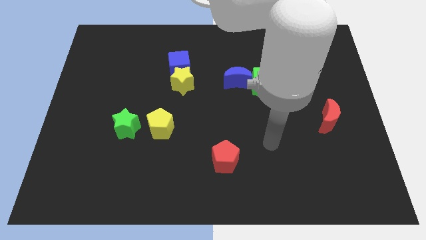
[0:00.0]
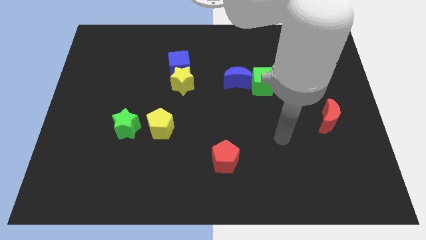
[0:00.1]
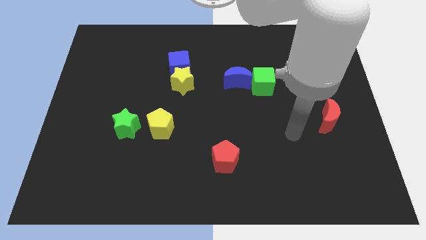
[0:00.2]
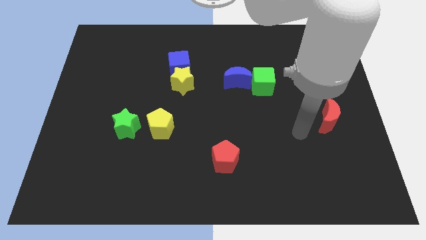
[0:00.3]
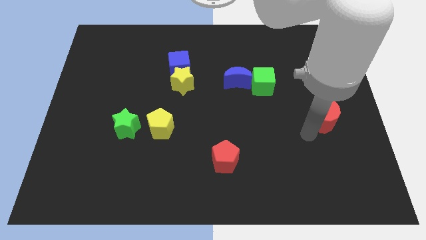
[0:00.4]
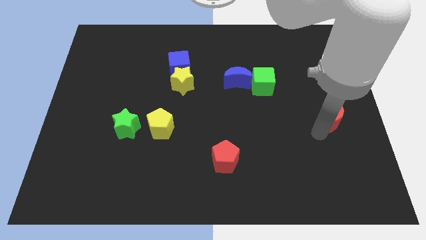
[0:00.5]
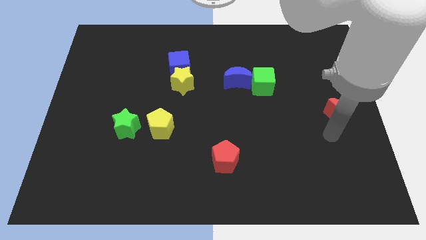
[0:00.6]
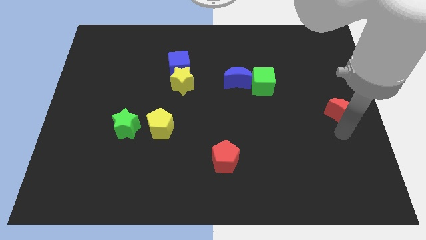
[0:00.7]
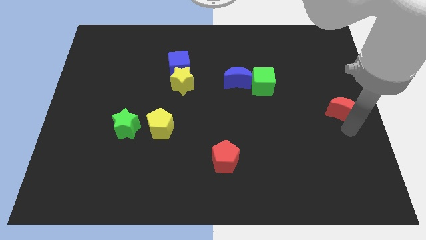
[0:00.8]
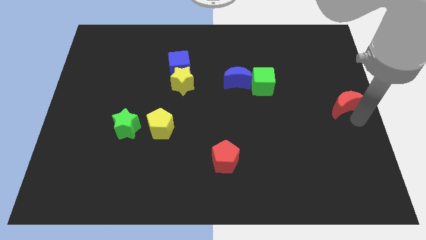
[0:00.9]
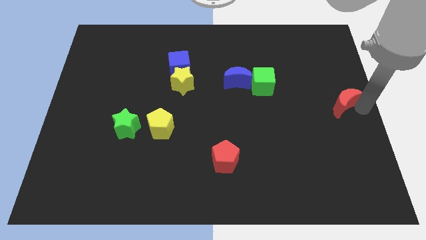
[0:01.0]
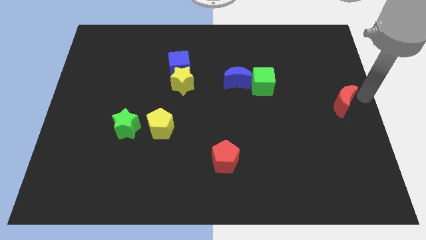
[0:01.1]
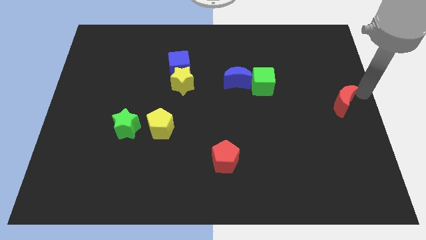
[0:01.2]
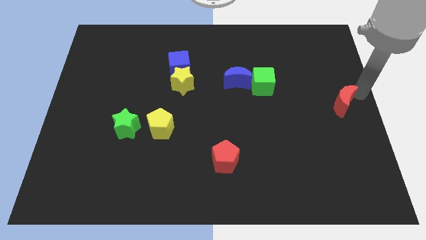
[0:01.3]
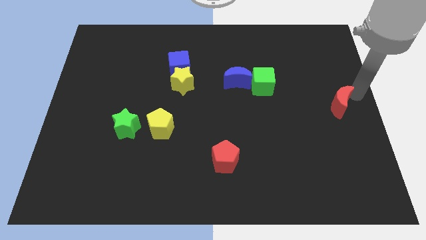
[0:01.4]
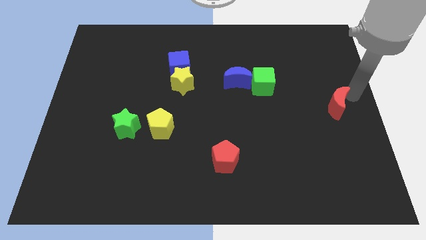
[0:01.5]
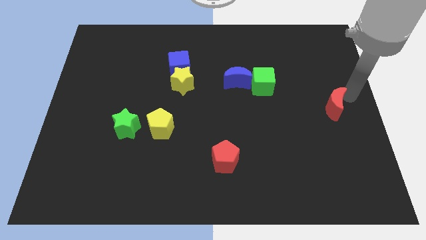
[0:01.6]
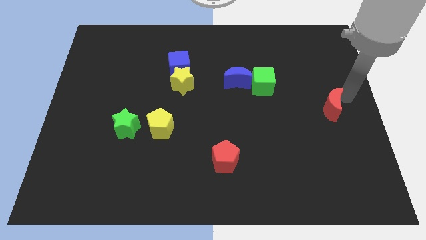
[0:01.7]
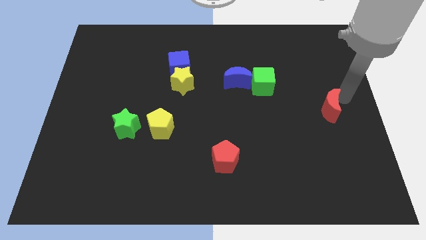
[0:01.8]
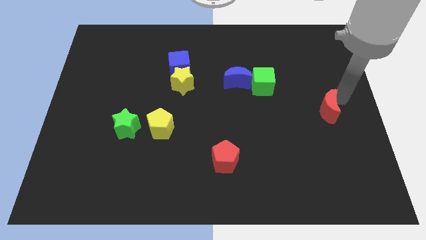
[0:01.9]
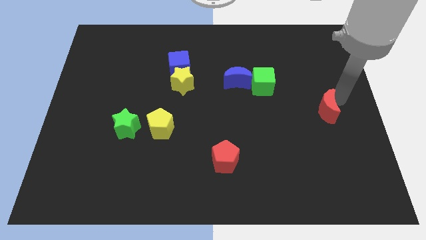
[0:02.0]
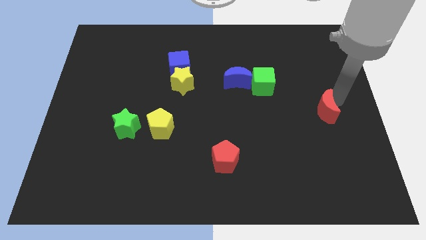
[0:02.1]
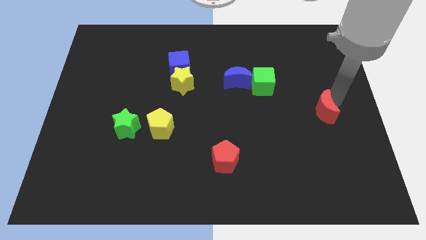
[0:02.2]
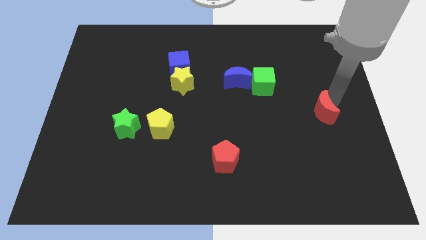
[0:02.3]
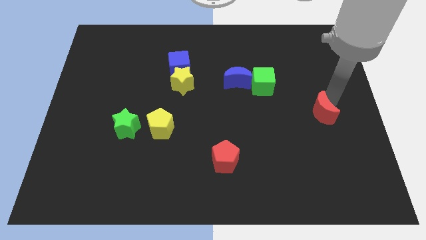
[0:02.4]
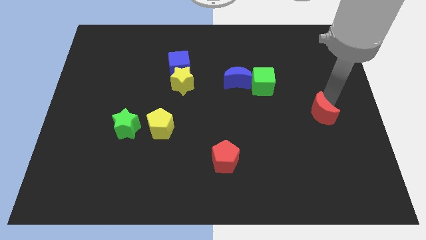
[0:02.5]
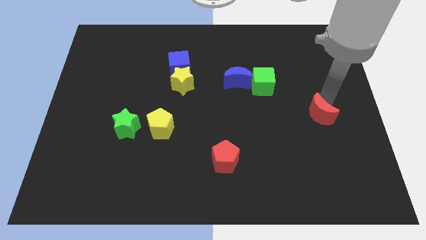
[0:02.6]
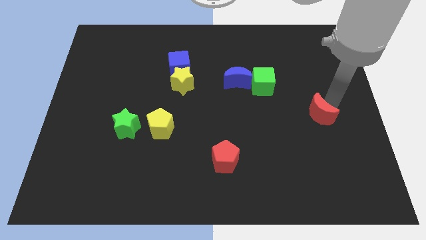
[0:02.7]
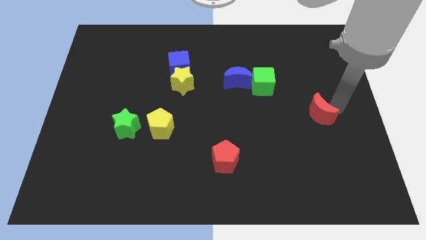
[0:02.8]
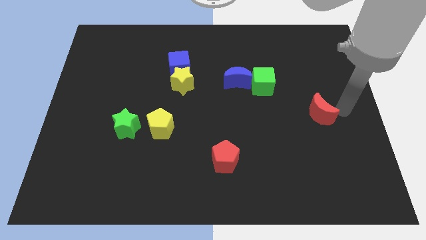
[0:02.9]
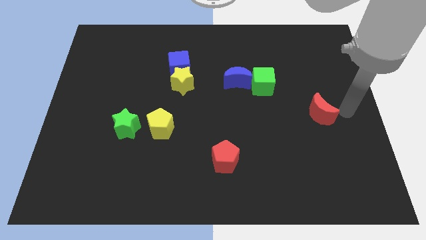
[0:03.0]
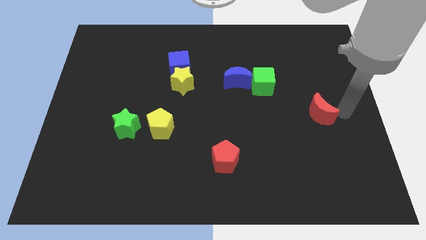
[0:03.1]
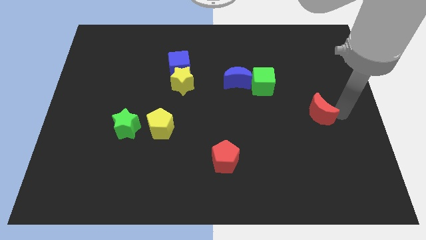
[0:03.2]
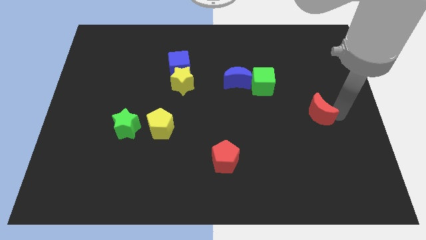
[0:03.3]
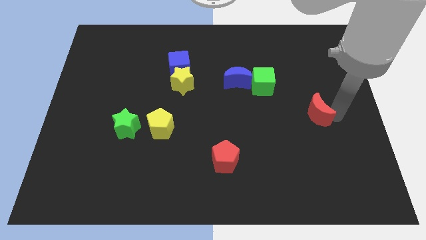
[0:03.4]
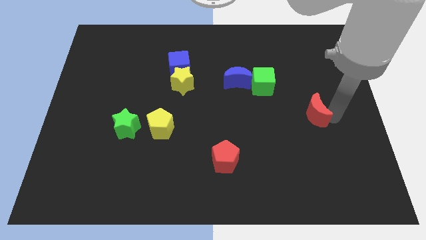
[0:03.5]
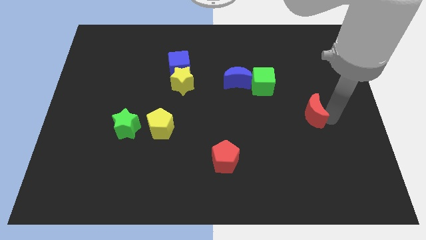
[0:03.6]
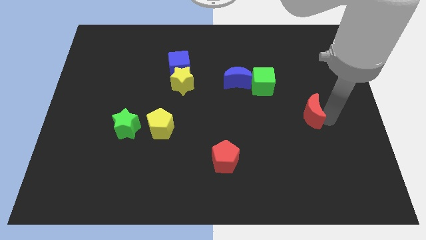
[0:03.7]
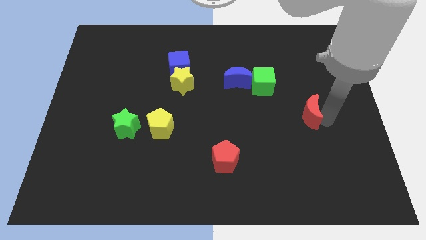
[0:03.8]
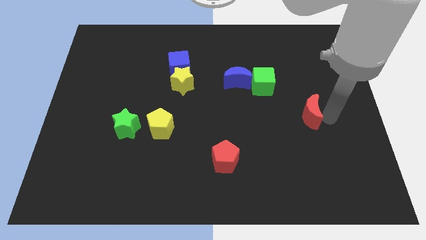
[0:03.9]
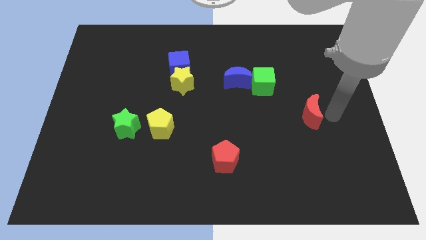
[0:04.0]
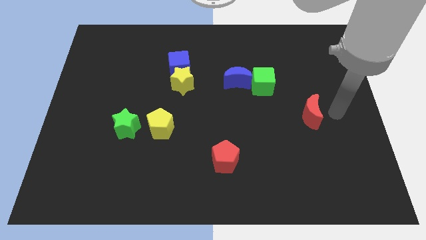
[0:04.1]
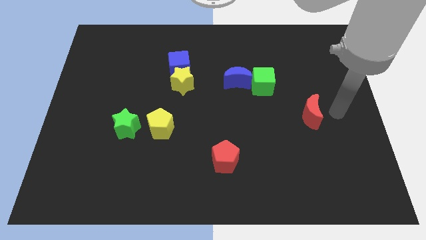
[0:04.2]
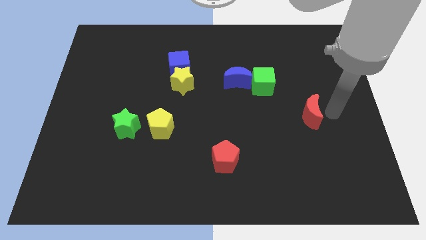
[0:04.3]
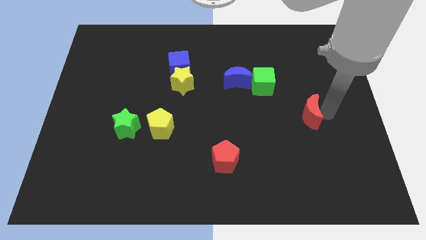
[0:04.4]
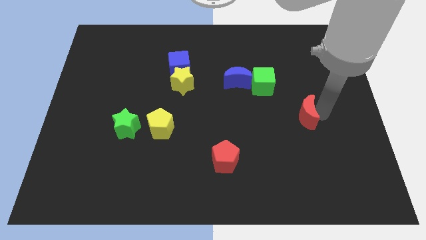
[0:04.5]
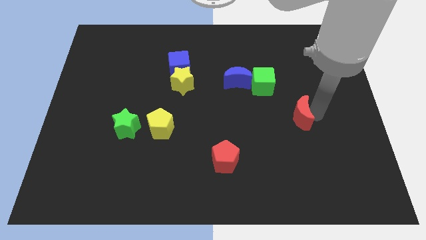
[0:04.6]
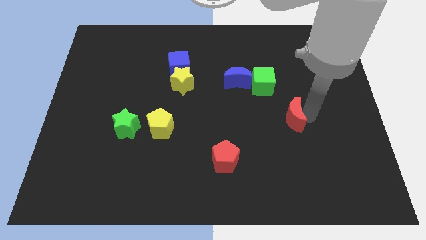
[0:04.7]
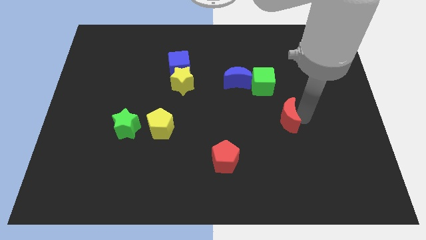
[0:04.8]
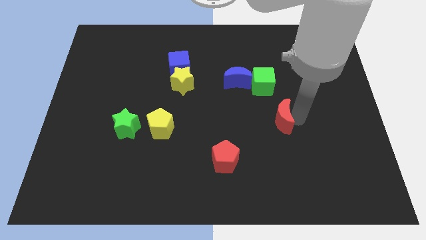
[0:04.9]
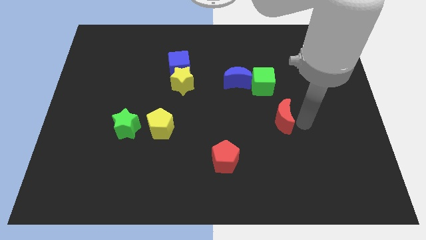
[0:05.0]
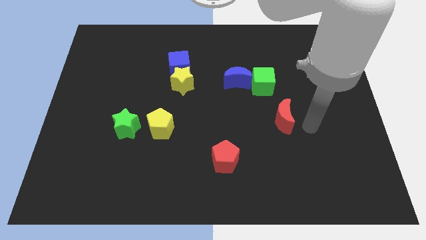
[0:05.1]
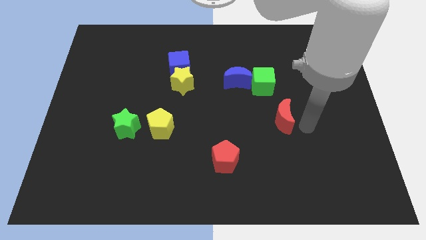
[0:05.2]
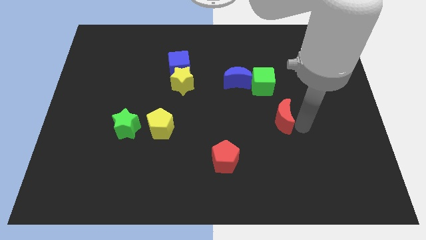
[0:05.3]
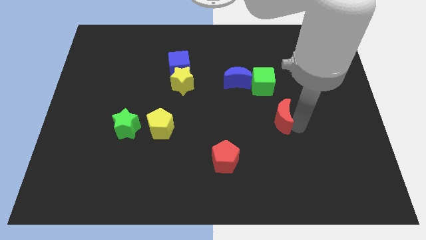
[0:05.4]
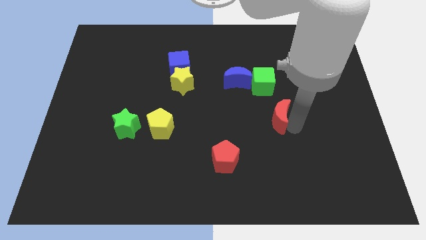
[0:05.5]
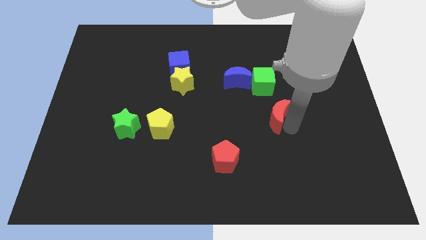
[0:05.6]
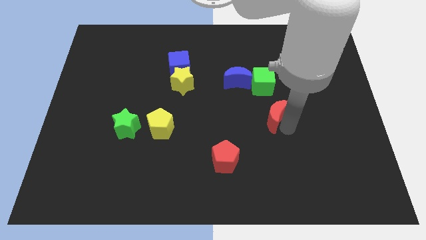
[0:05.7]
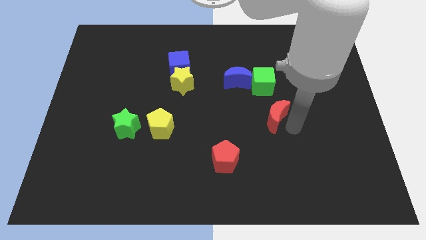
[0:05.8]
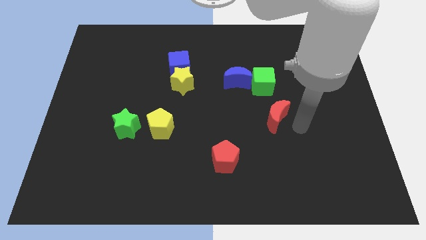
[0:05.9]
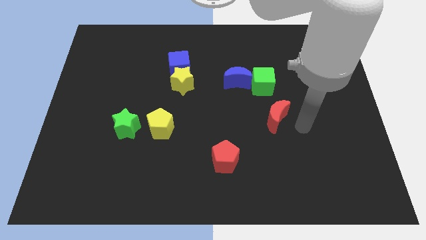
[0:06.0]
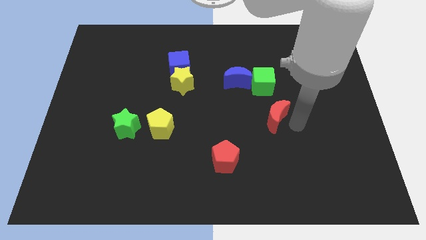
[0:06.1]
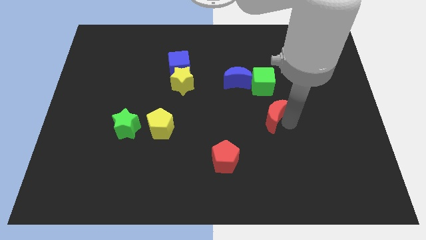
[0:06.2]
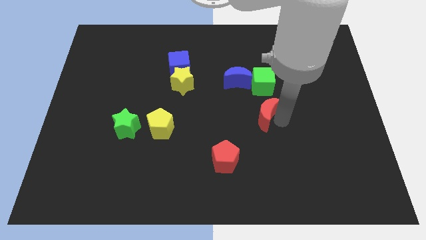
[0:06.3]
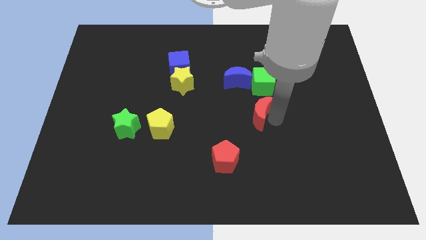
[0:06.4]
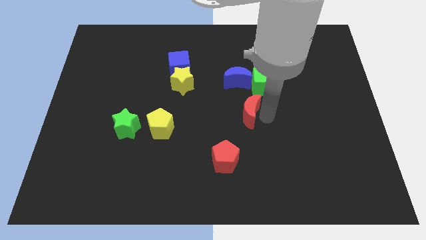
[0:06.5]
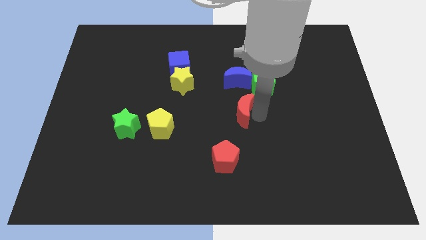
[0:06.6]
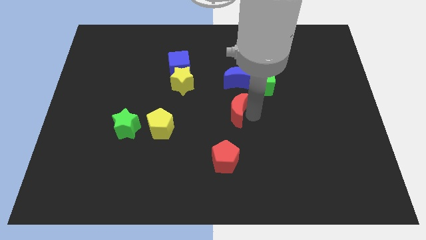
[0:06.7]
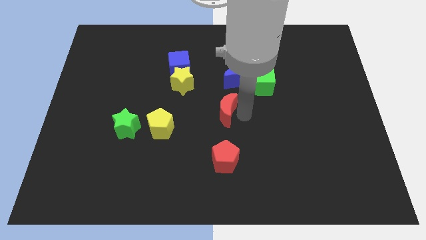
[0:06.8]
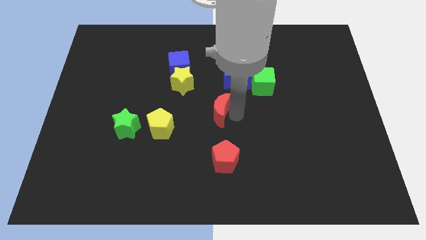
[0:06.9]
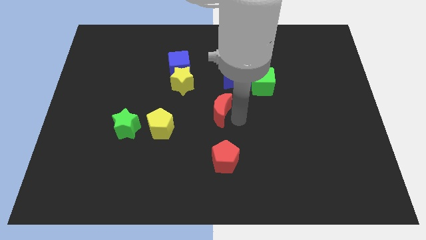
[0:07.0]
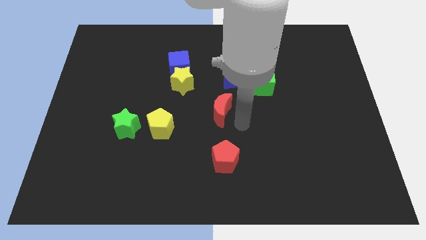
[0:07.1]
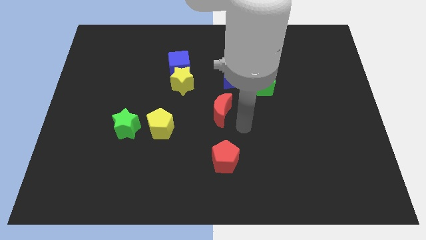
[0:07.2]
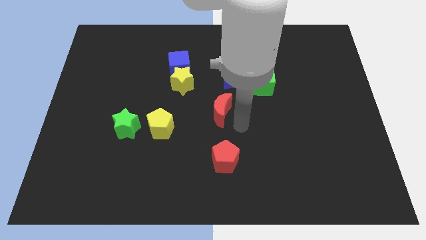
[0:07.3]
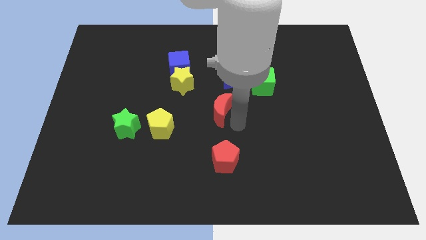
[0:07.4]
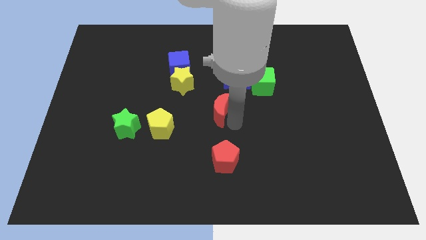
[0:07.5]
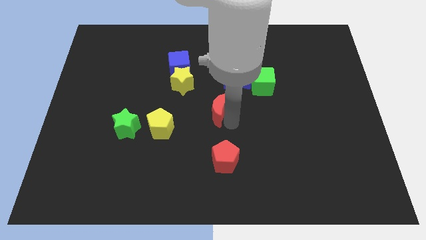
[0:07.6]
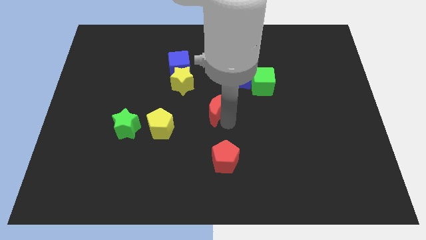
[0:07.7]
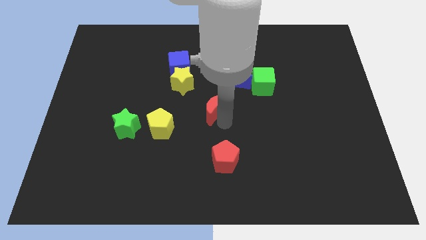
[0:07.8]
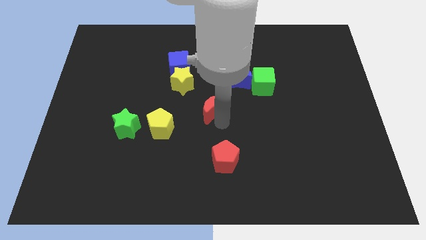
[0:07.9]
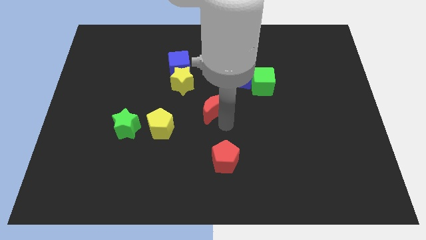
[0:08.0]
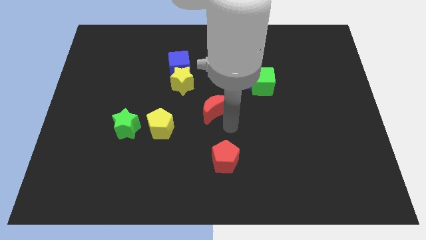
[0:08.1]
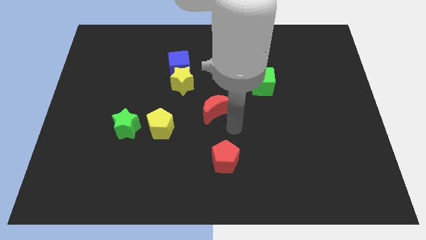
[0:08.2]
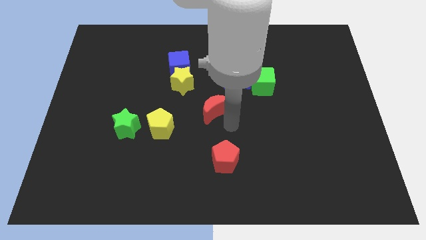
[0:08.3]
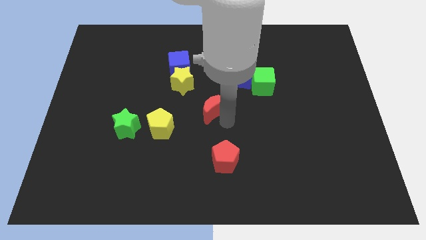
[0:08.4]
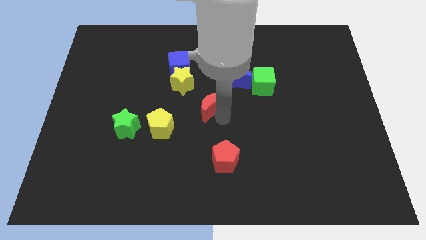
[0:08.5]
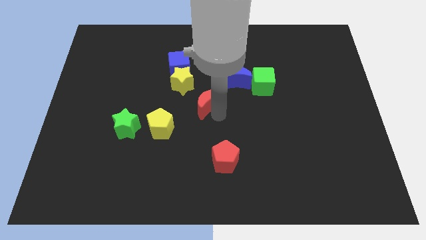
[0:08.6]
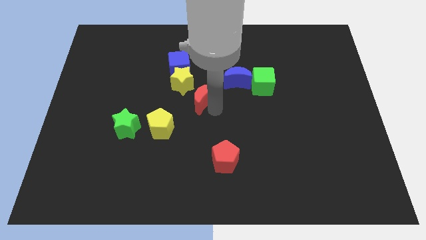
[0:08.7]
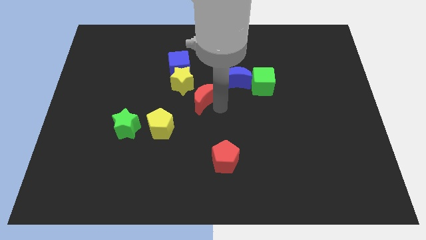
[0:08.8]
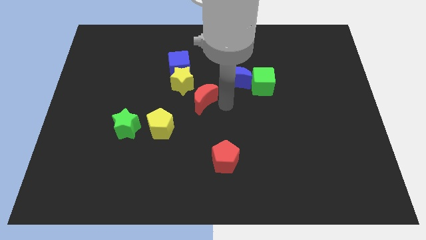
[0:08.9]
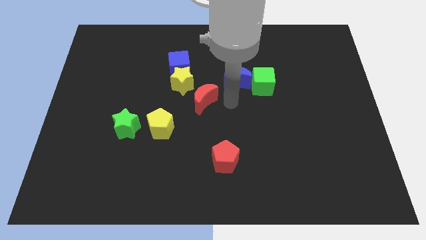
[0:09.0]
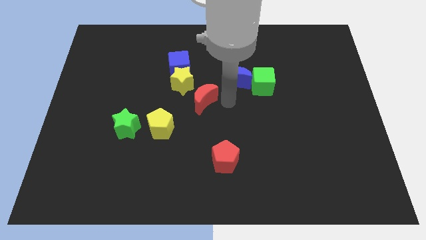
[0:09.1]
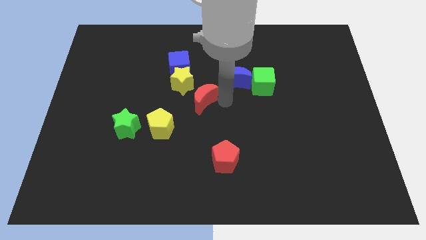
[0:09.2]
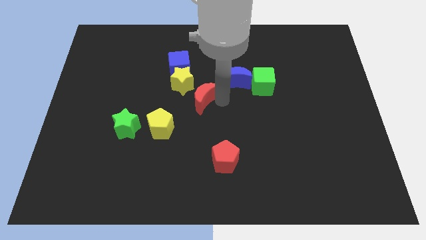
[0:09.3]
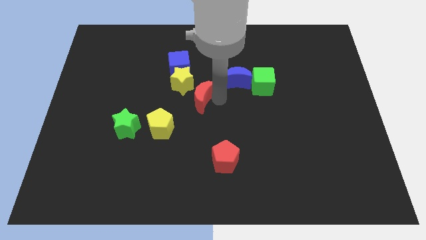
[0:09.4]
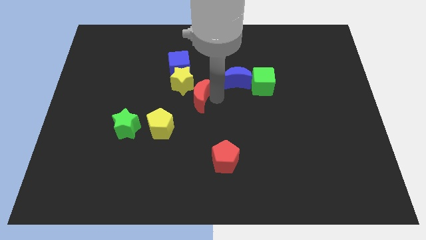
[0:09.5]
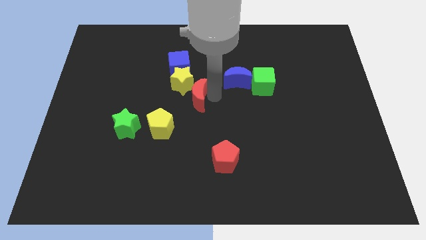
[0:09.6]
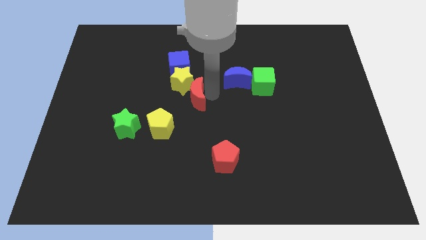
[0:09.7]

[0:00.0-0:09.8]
move the red moon below the blue cube
